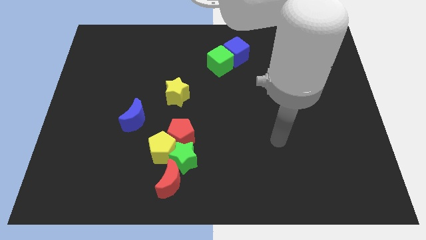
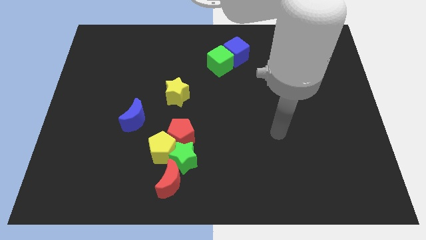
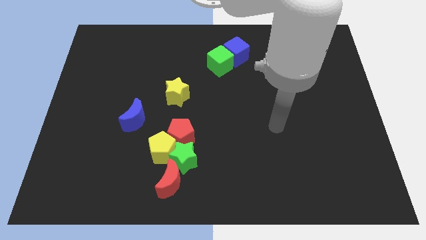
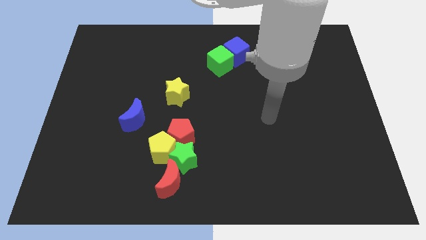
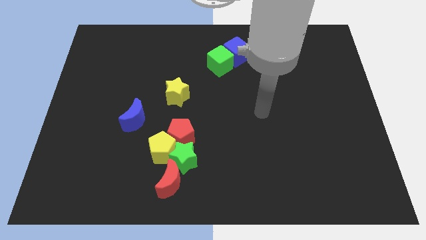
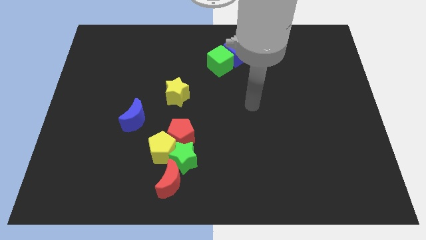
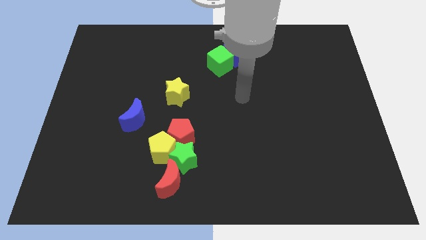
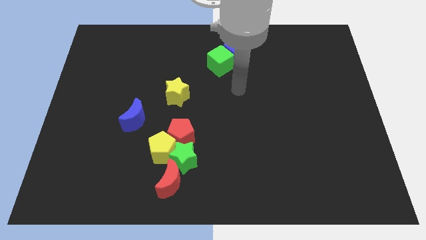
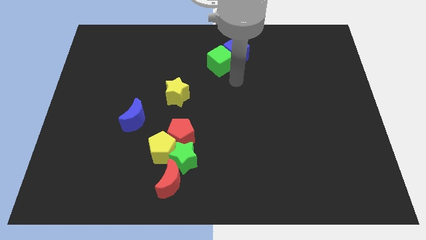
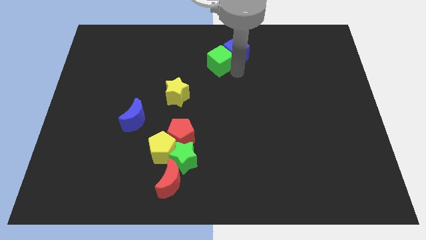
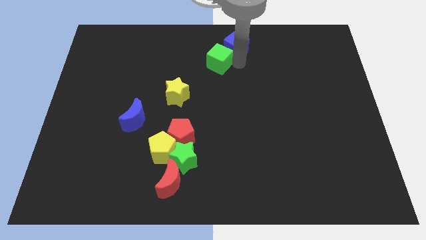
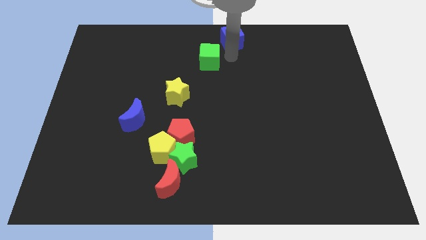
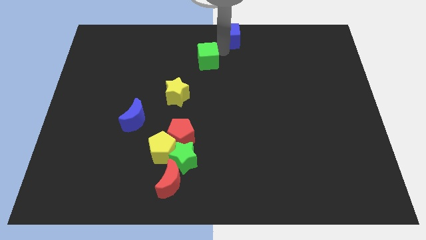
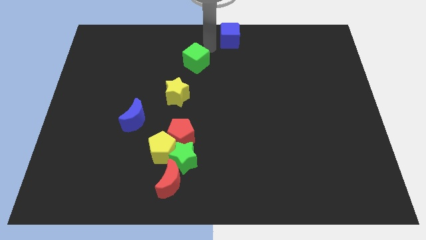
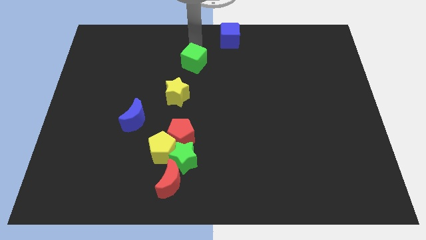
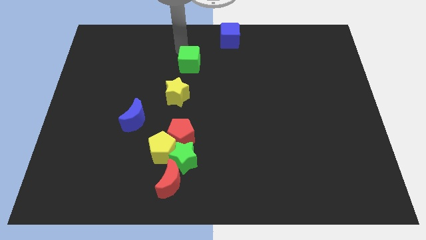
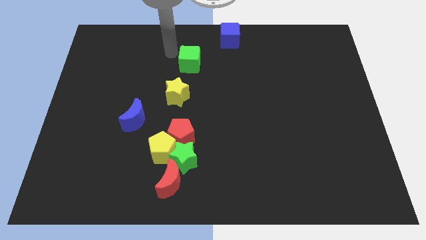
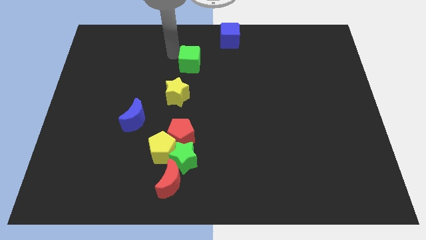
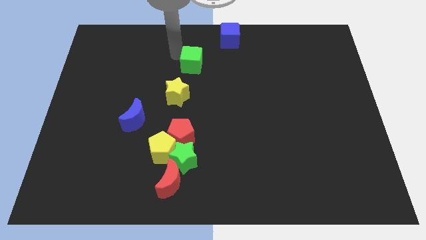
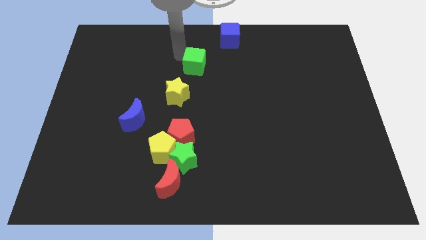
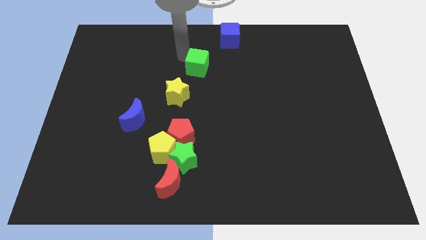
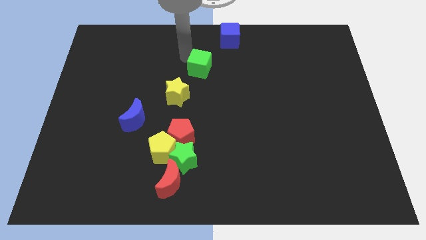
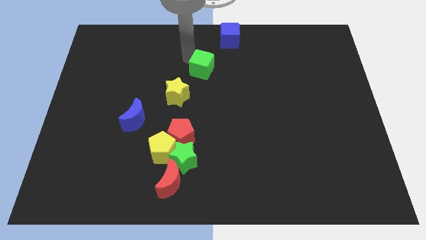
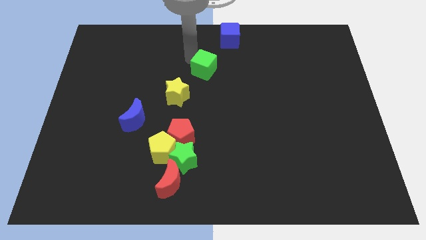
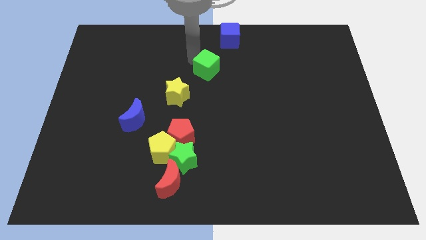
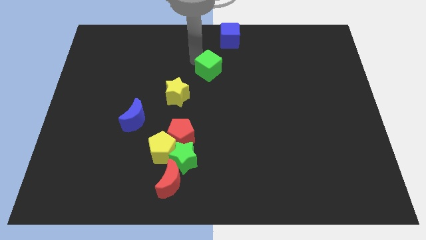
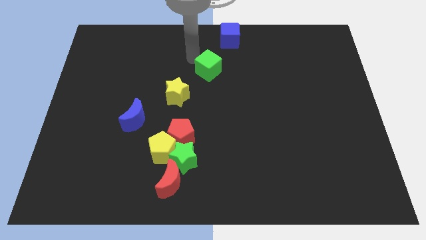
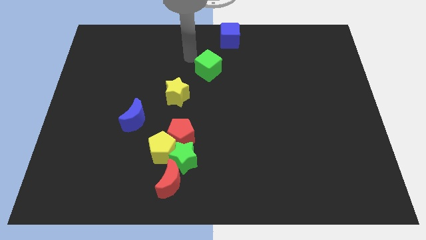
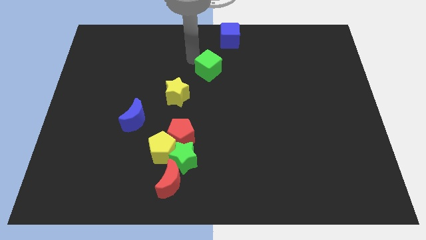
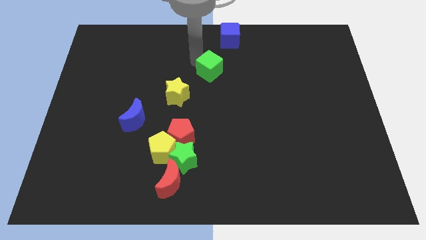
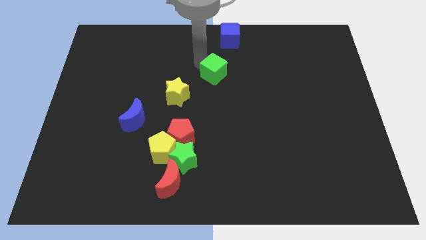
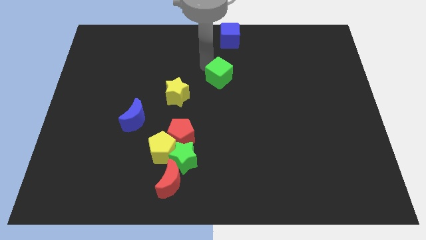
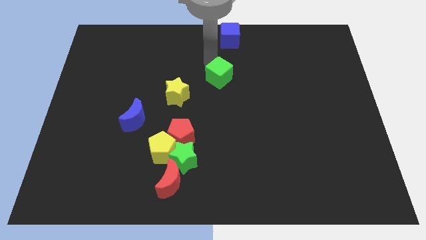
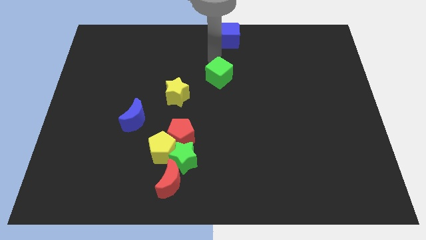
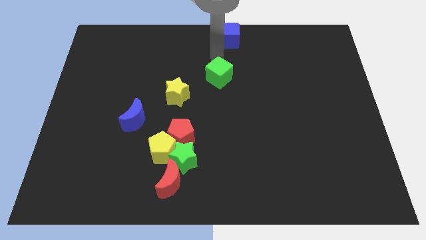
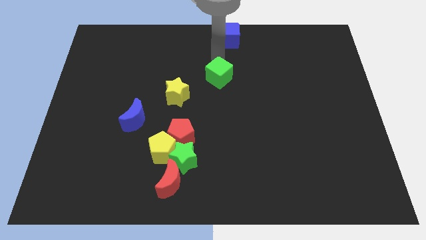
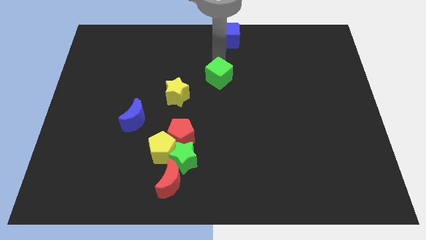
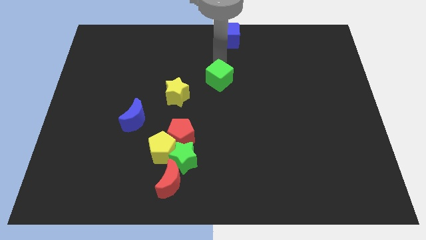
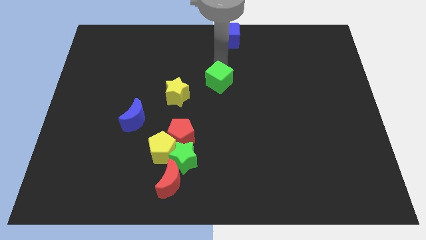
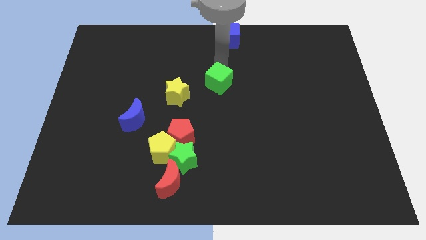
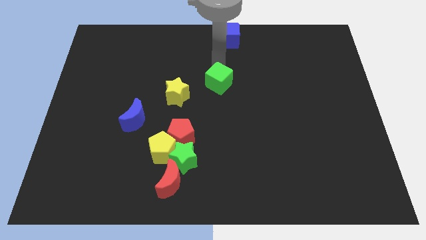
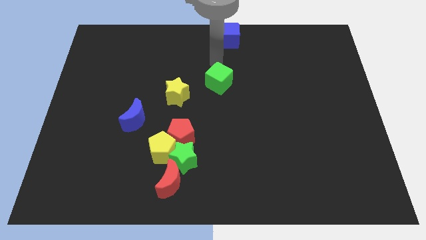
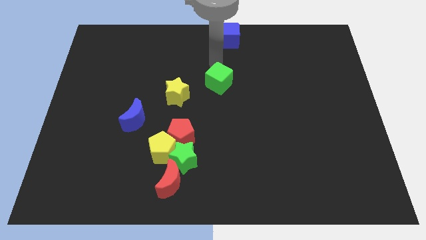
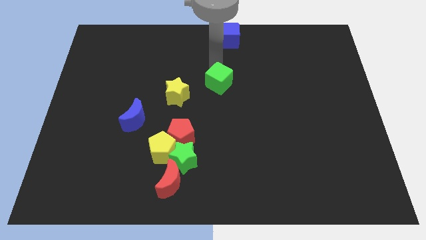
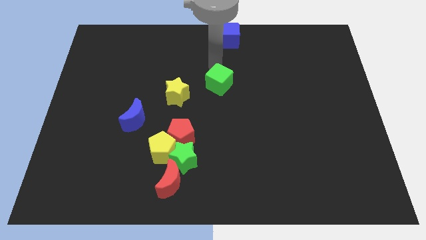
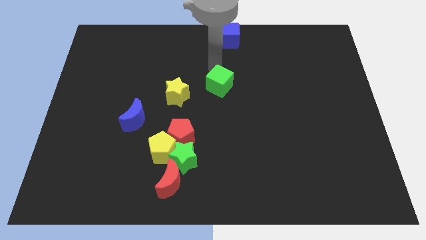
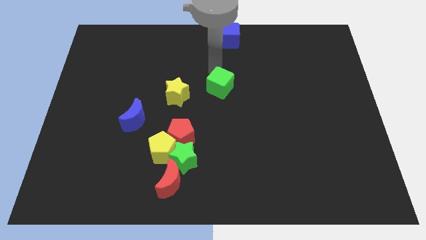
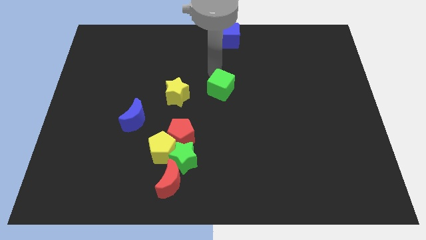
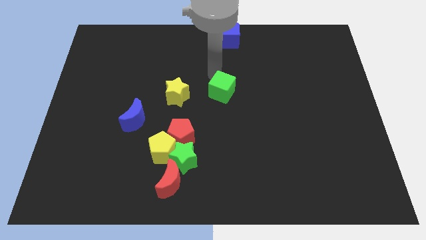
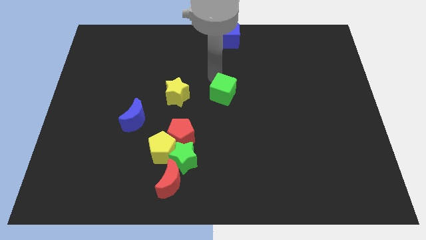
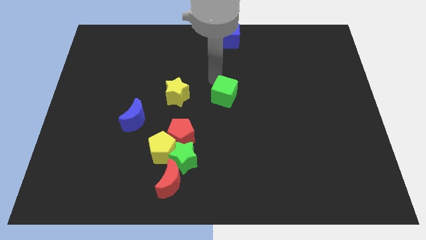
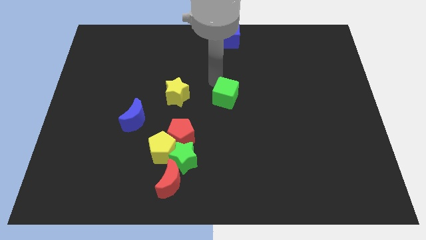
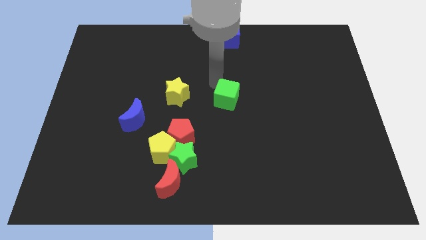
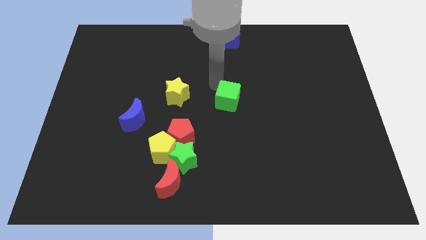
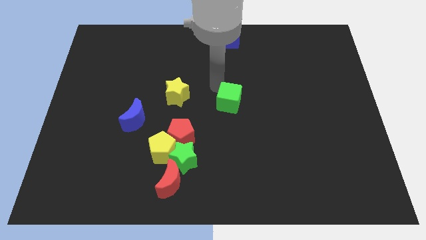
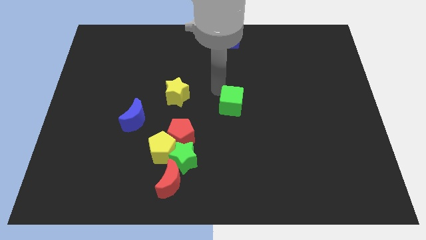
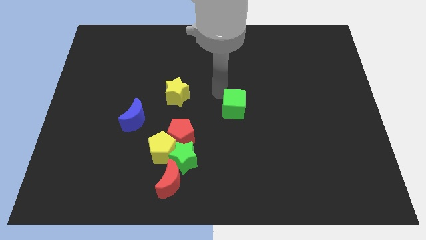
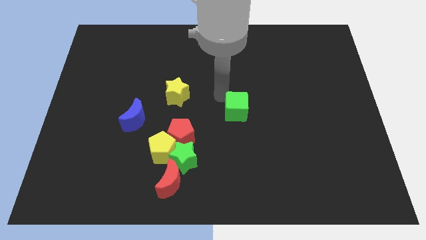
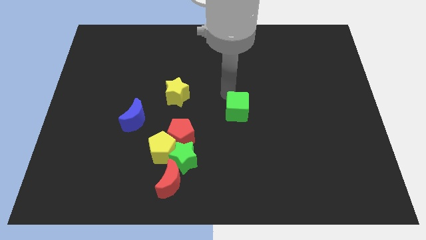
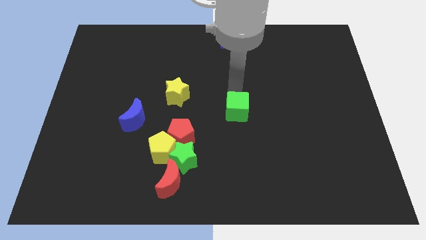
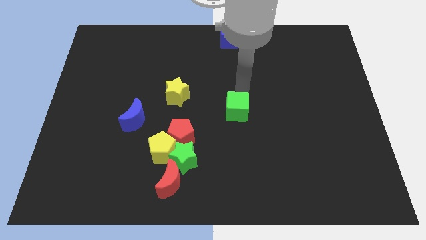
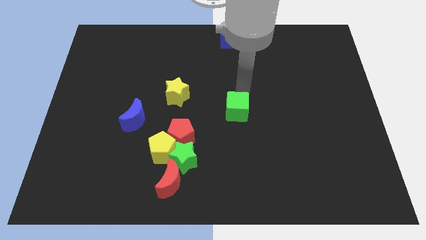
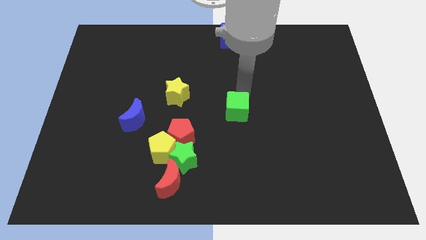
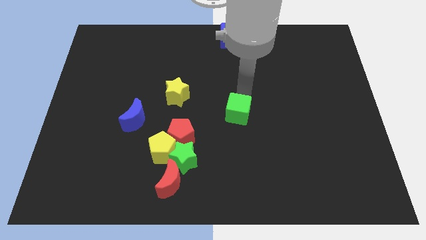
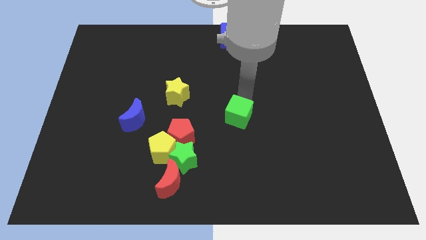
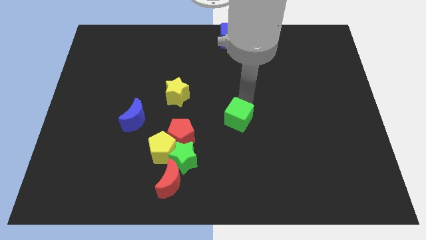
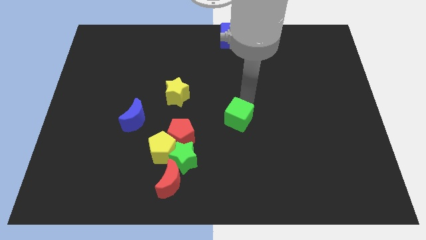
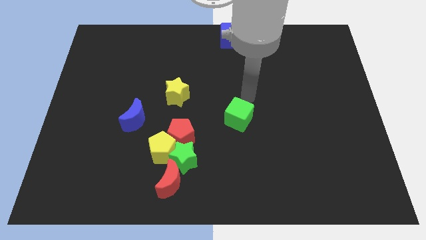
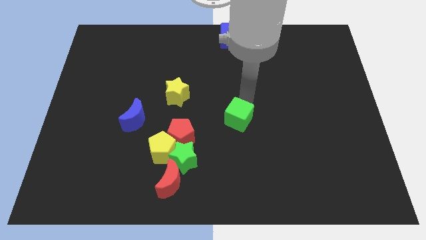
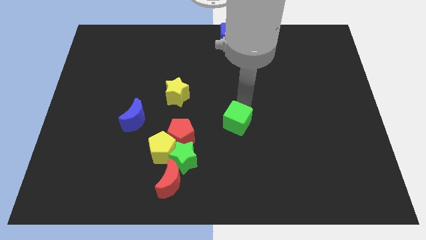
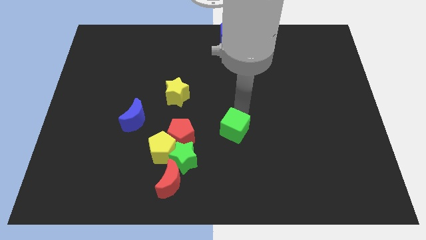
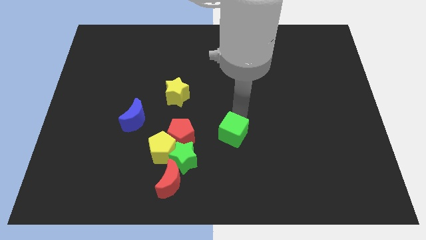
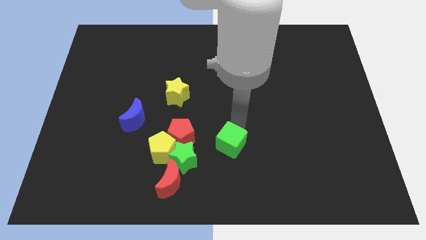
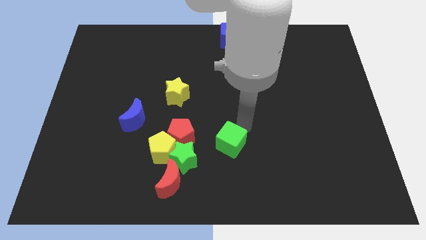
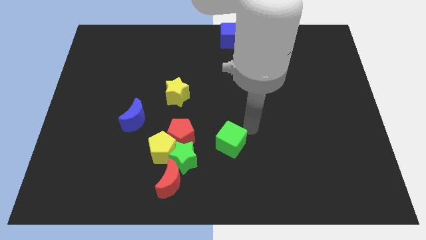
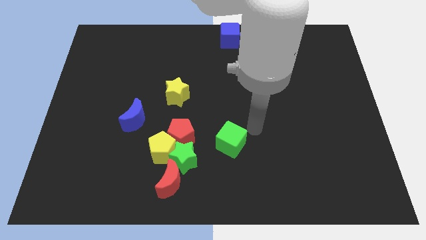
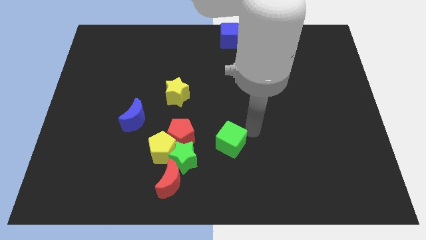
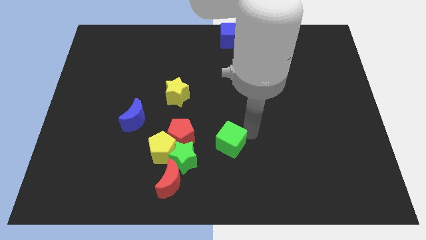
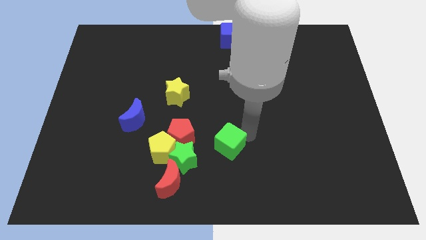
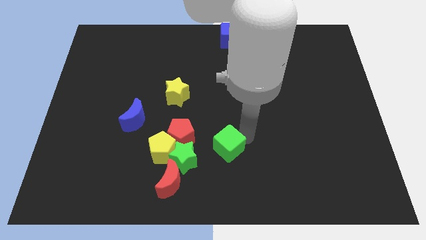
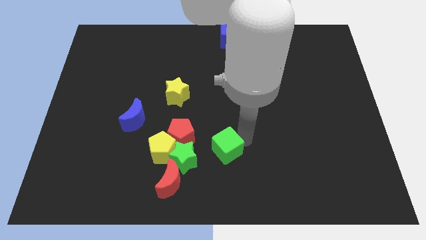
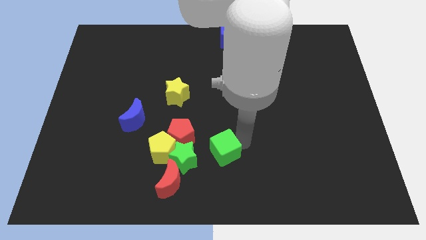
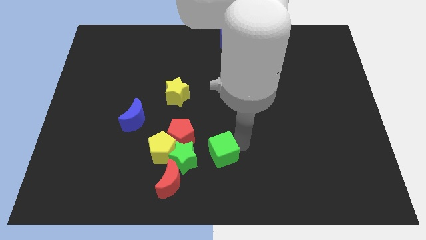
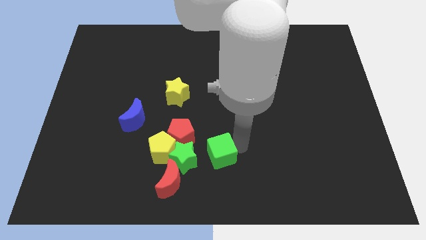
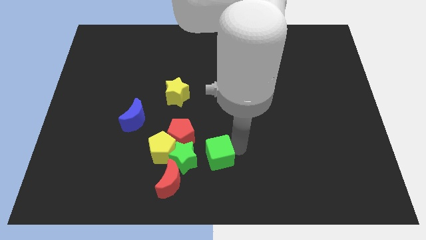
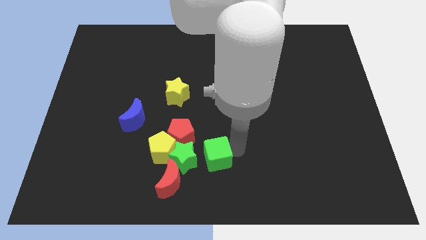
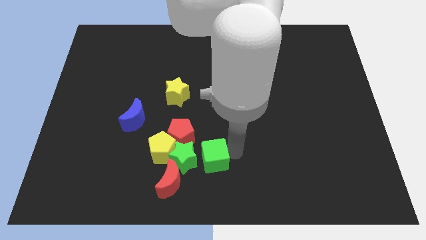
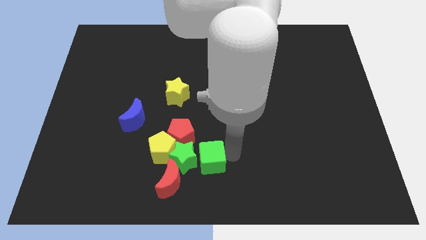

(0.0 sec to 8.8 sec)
slide the green cube next to the green star
